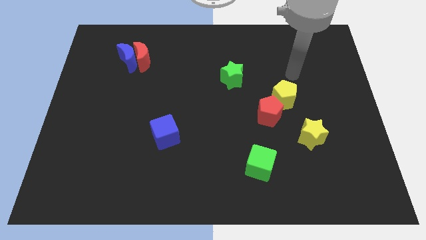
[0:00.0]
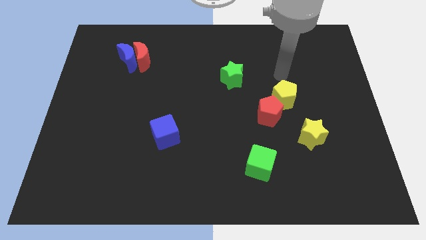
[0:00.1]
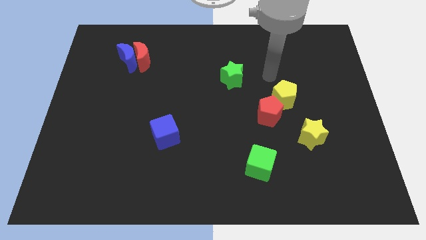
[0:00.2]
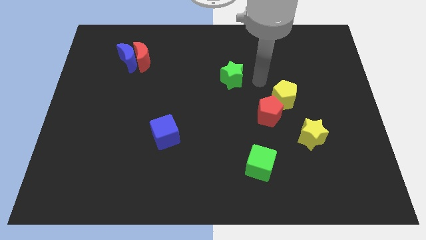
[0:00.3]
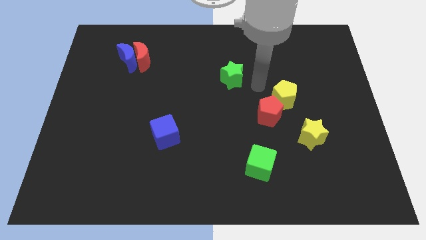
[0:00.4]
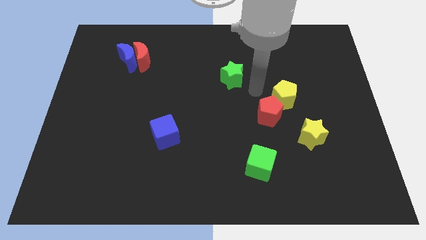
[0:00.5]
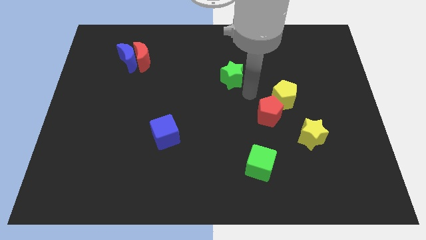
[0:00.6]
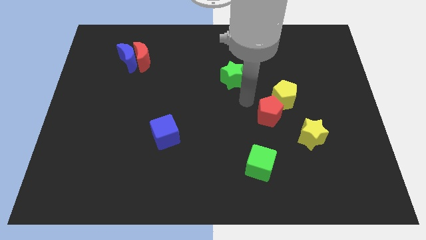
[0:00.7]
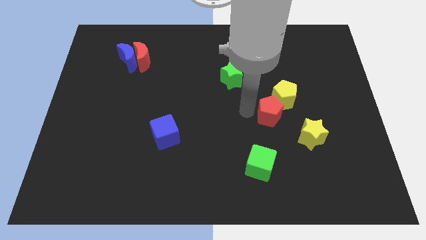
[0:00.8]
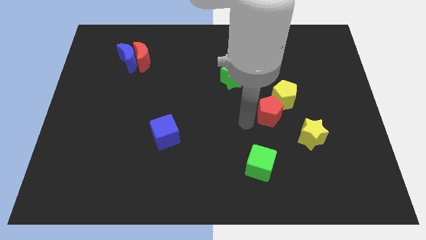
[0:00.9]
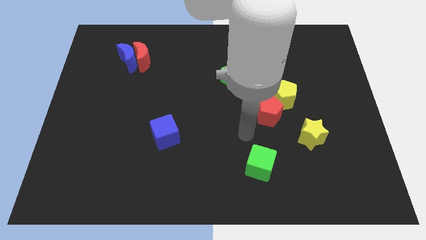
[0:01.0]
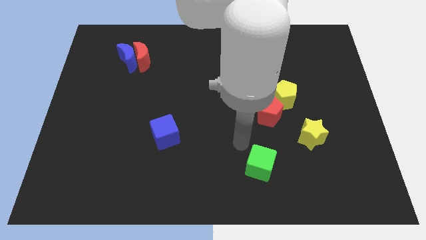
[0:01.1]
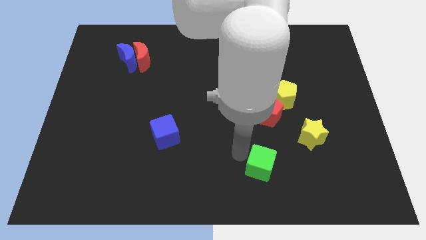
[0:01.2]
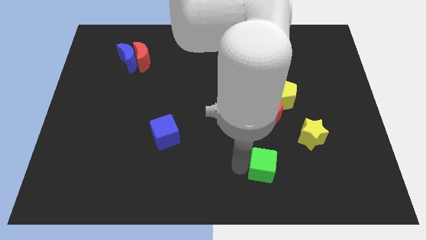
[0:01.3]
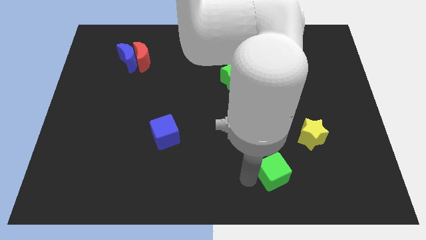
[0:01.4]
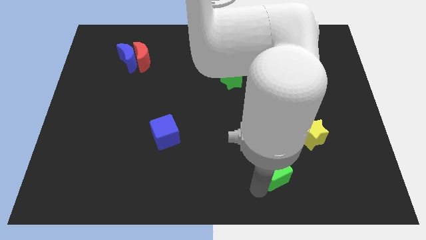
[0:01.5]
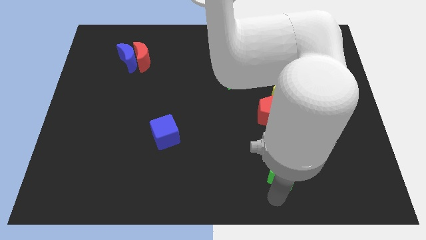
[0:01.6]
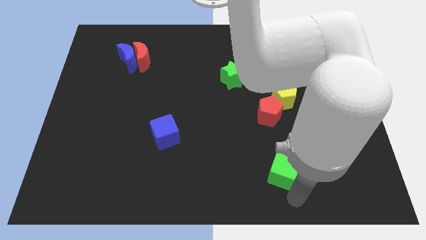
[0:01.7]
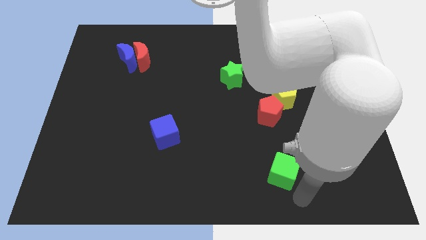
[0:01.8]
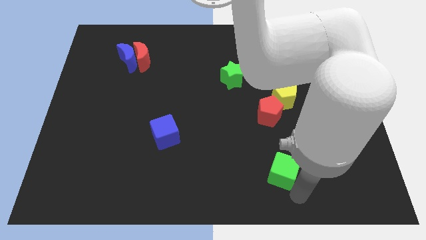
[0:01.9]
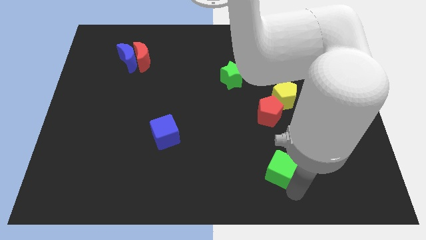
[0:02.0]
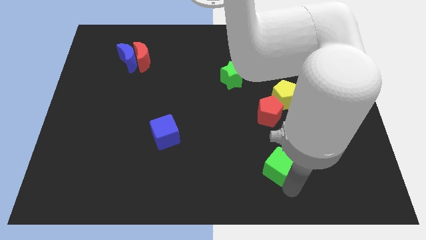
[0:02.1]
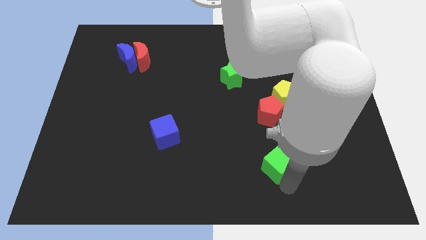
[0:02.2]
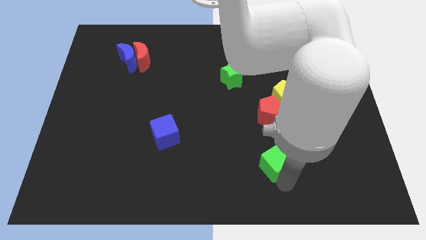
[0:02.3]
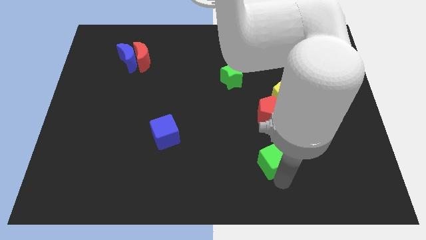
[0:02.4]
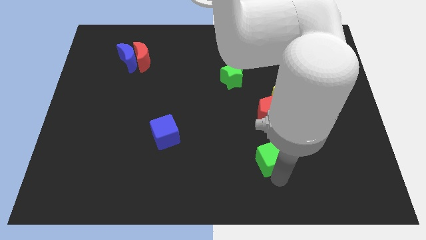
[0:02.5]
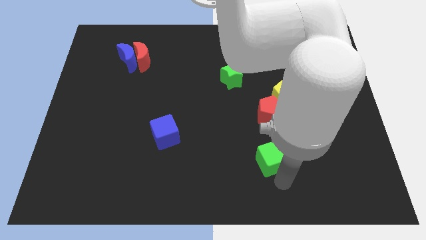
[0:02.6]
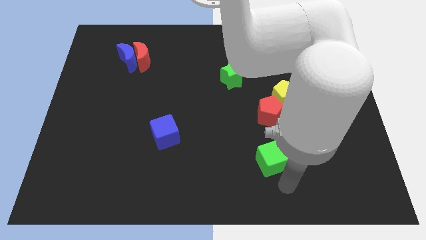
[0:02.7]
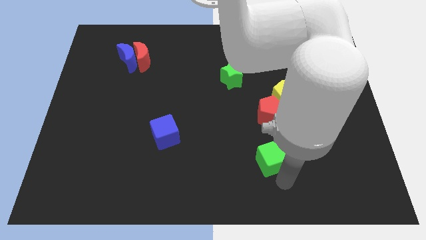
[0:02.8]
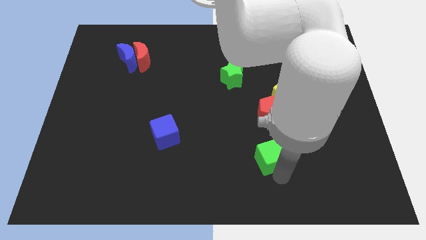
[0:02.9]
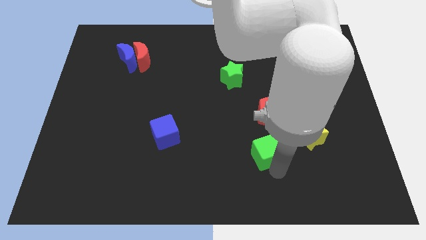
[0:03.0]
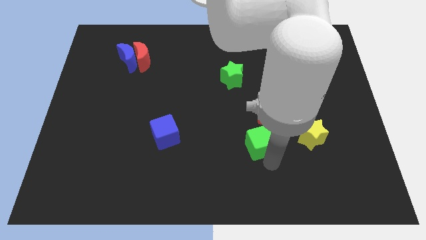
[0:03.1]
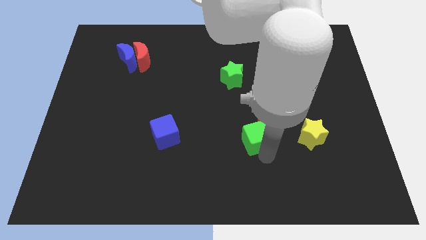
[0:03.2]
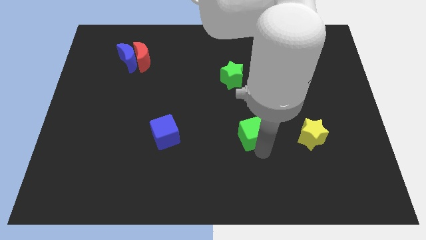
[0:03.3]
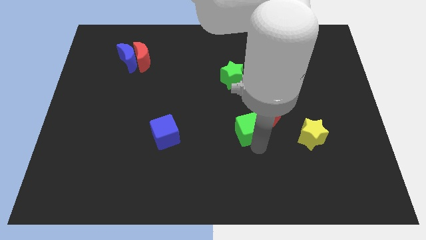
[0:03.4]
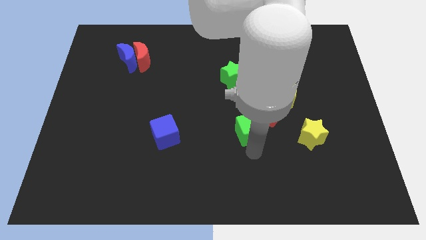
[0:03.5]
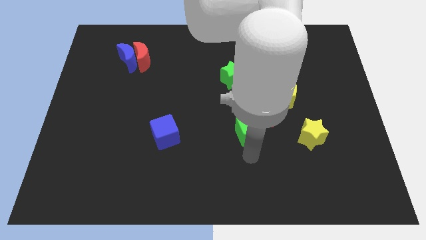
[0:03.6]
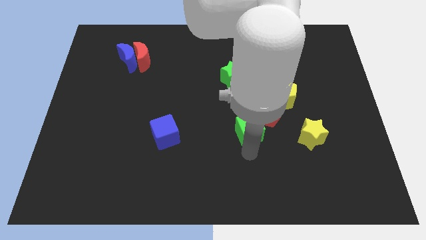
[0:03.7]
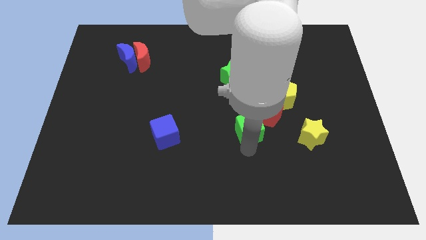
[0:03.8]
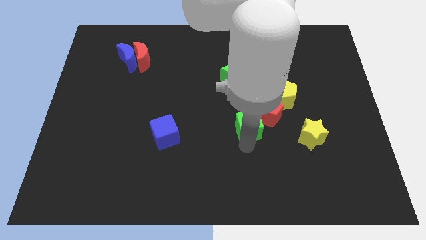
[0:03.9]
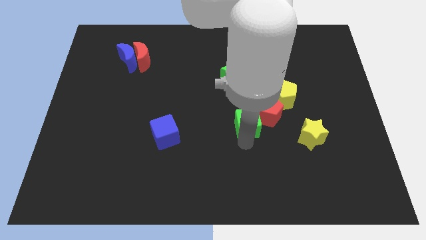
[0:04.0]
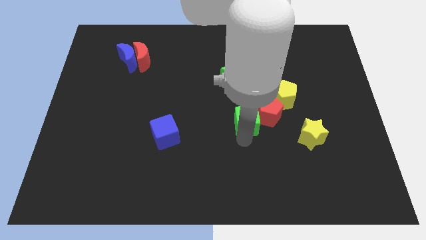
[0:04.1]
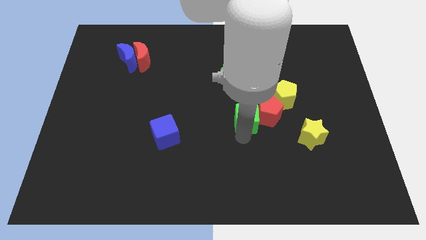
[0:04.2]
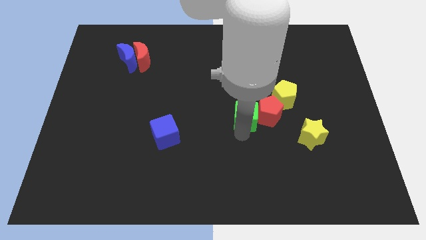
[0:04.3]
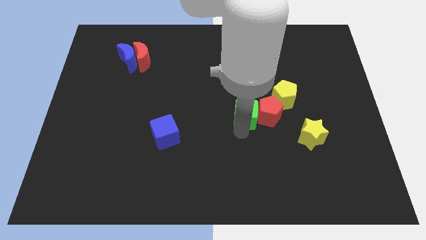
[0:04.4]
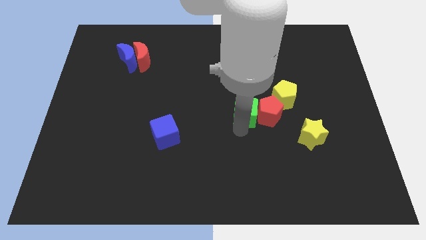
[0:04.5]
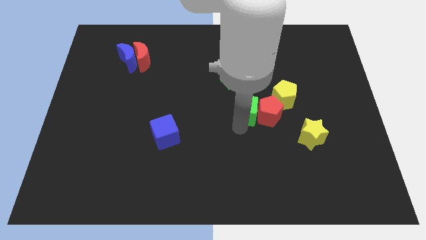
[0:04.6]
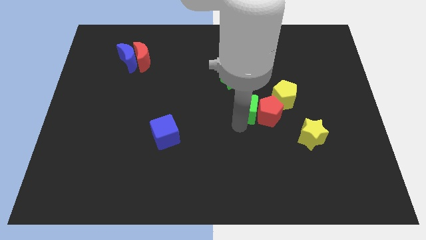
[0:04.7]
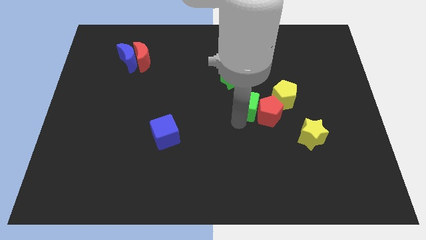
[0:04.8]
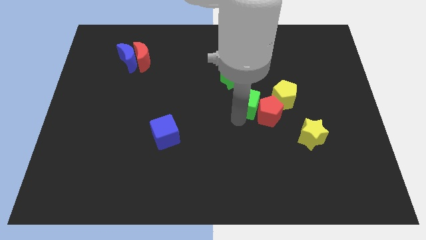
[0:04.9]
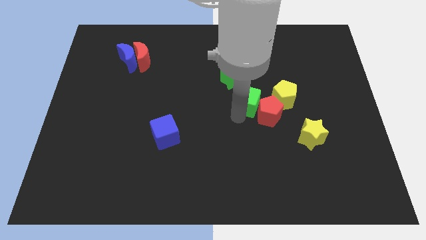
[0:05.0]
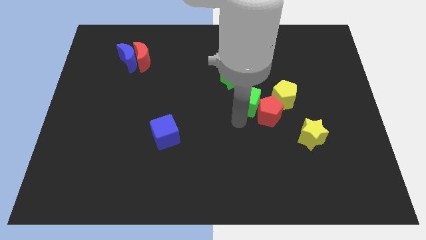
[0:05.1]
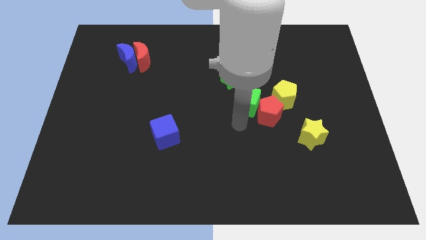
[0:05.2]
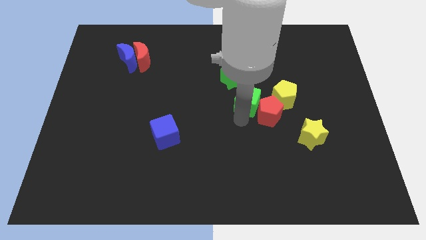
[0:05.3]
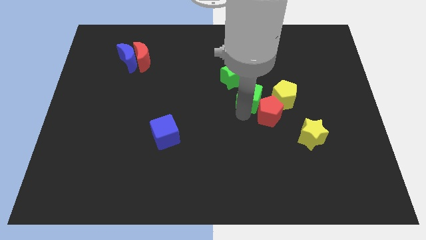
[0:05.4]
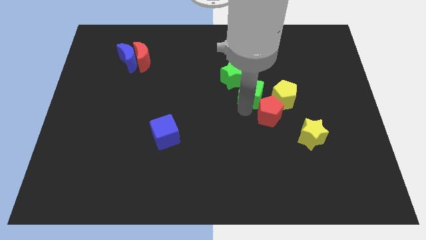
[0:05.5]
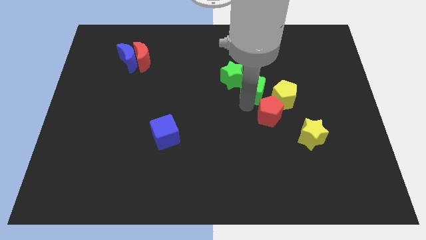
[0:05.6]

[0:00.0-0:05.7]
slide the green cube up

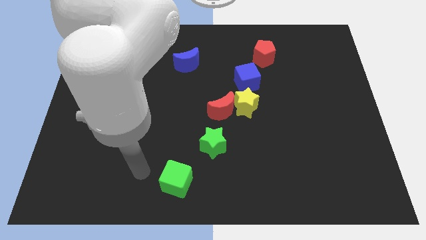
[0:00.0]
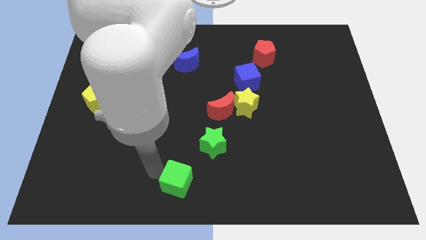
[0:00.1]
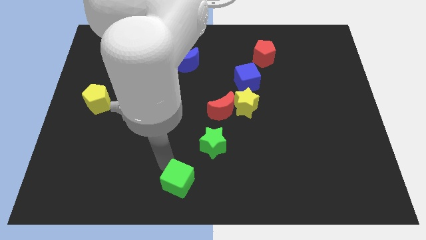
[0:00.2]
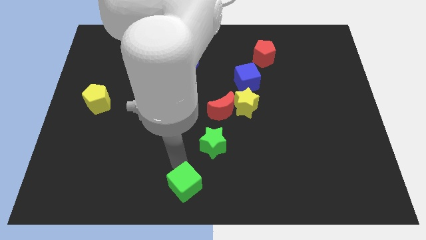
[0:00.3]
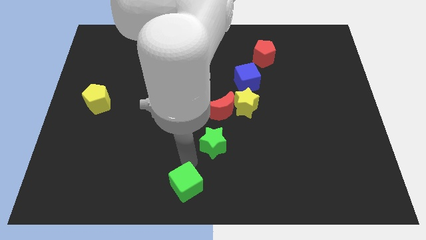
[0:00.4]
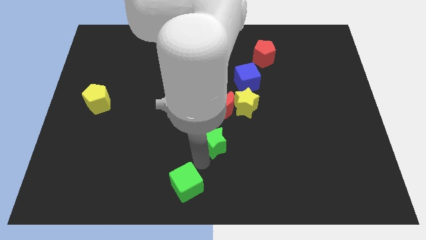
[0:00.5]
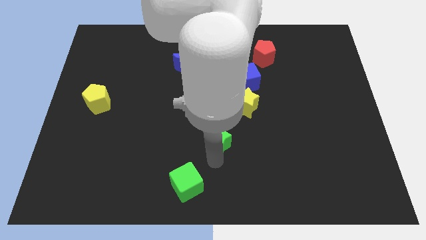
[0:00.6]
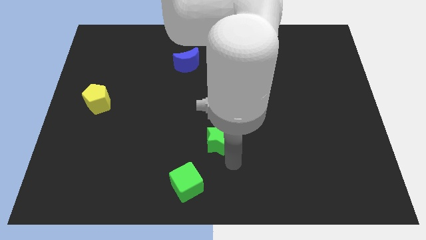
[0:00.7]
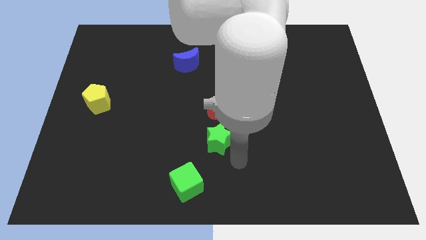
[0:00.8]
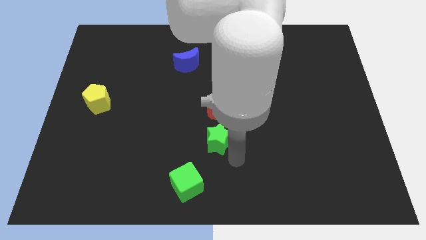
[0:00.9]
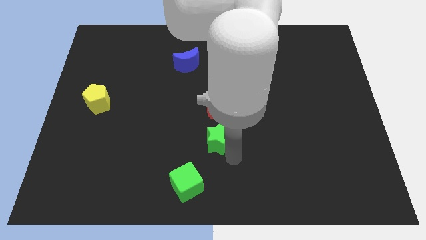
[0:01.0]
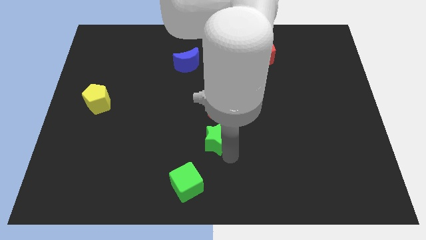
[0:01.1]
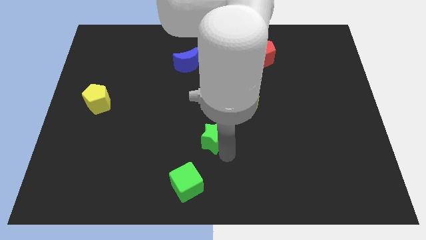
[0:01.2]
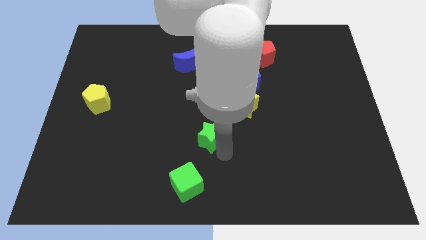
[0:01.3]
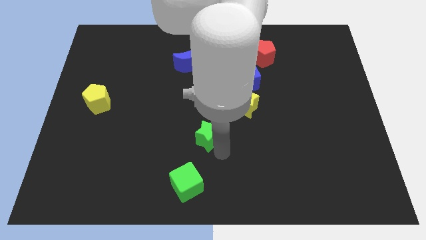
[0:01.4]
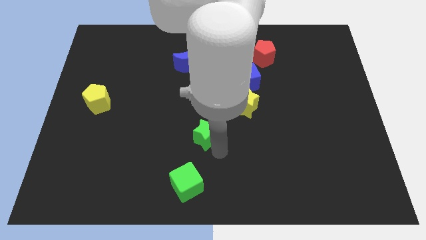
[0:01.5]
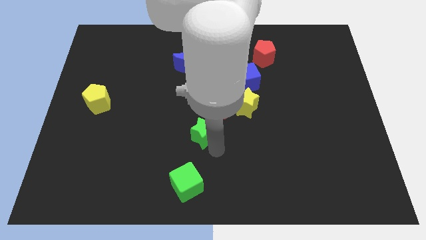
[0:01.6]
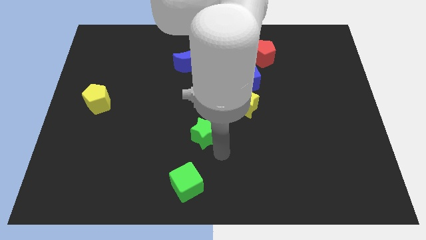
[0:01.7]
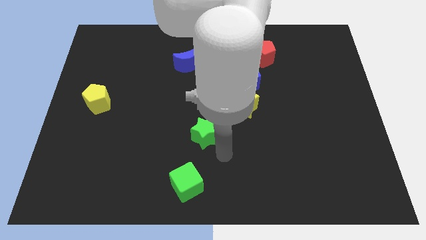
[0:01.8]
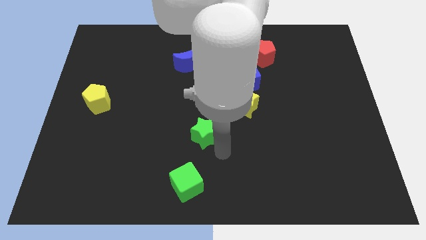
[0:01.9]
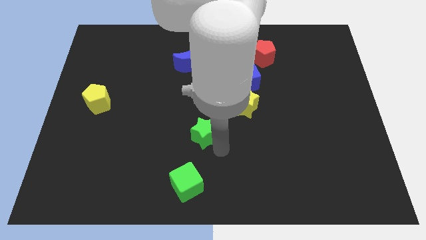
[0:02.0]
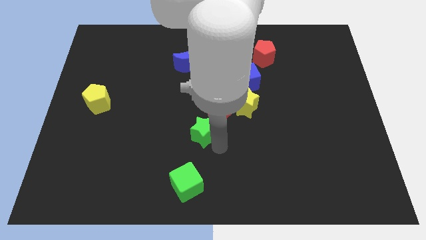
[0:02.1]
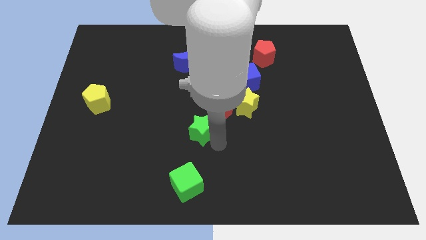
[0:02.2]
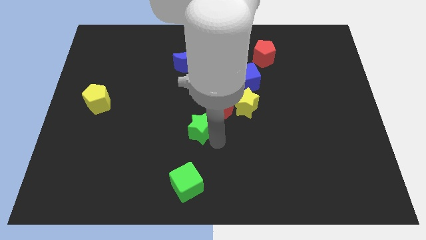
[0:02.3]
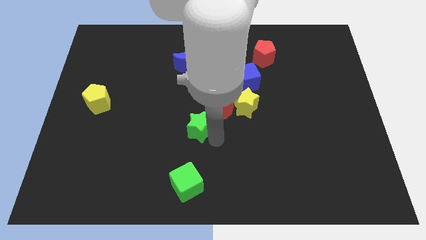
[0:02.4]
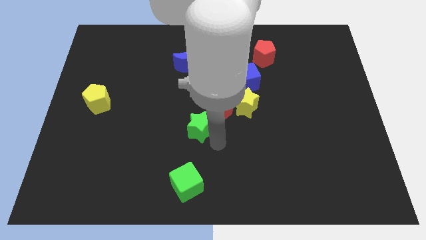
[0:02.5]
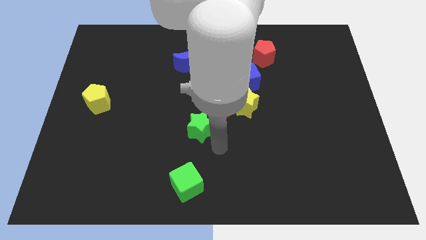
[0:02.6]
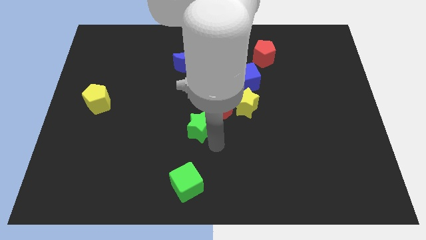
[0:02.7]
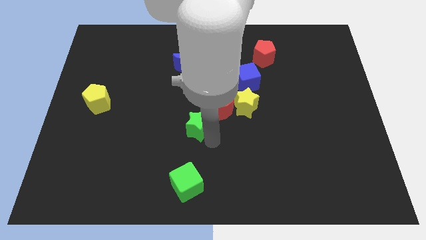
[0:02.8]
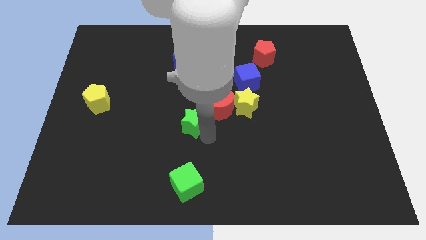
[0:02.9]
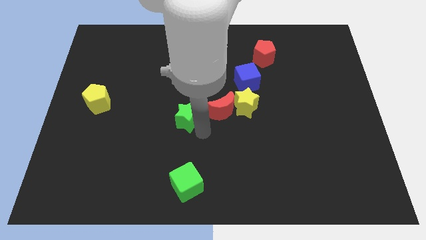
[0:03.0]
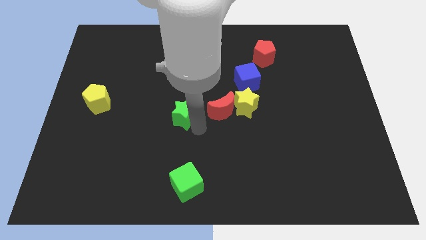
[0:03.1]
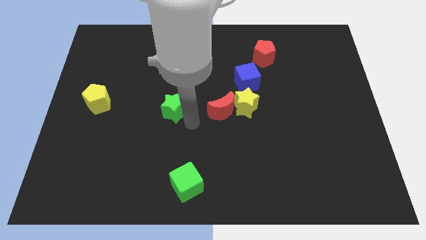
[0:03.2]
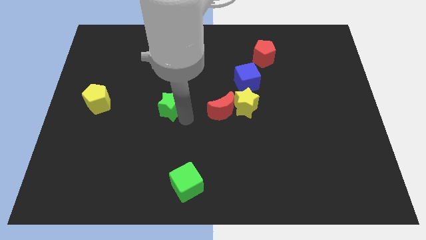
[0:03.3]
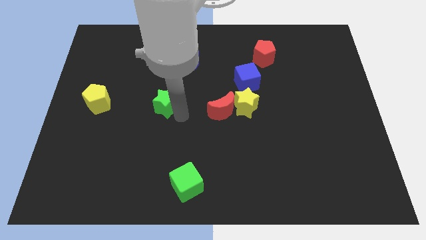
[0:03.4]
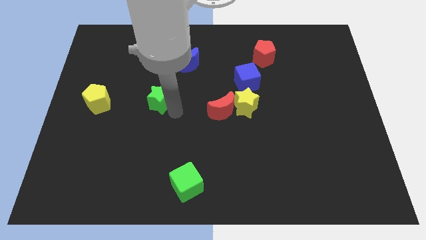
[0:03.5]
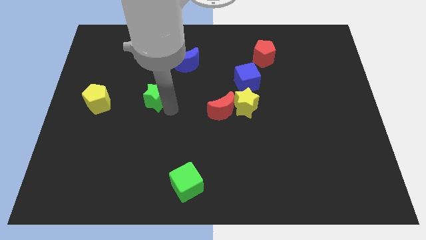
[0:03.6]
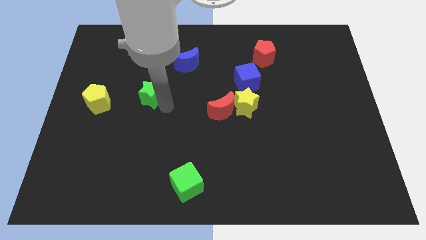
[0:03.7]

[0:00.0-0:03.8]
move the green star upwards and then to the left
